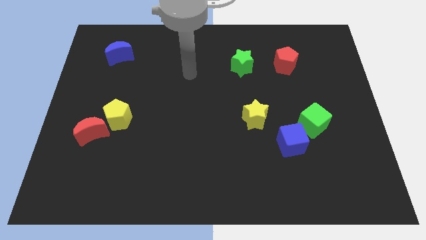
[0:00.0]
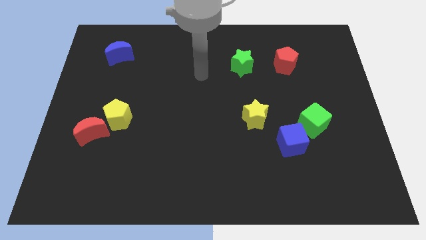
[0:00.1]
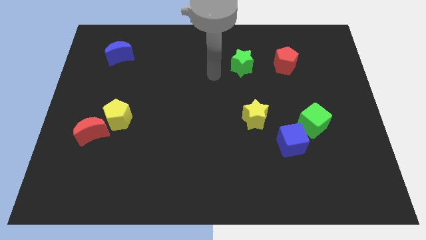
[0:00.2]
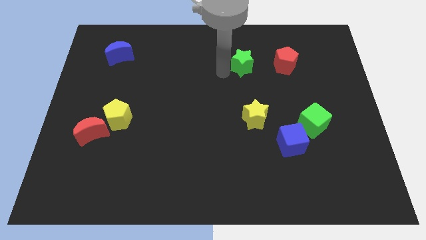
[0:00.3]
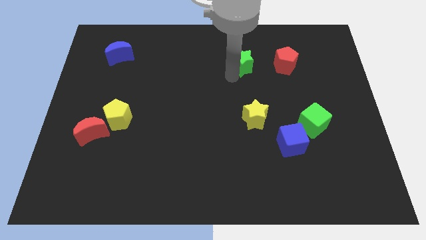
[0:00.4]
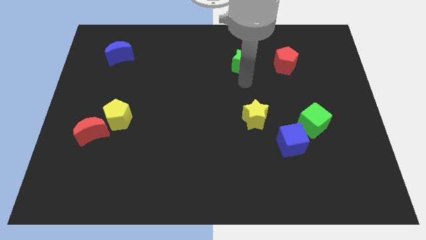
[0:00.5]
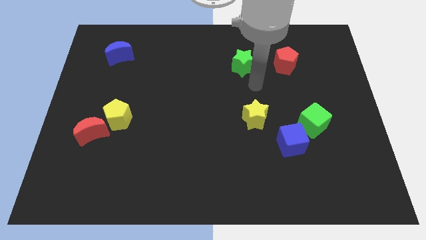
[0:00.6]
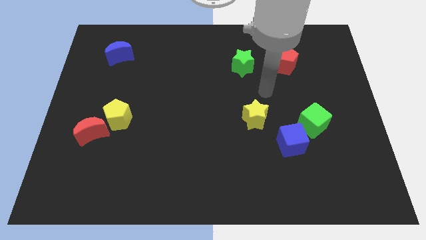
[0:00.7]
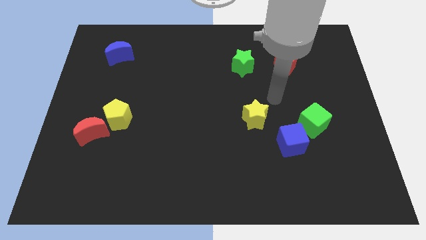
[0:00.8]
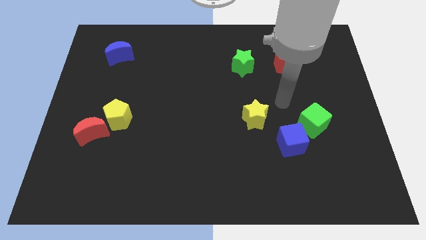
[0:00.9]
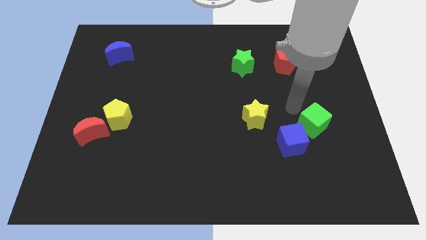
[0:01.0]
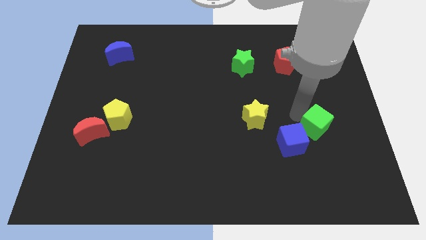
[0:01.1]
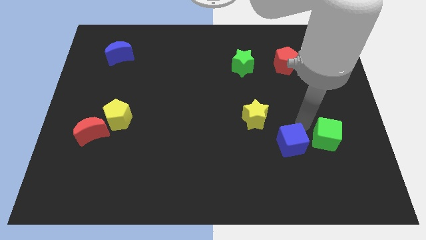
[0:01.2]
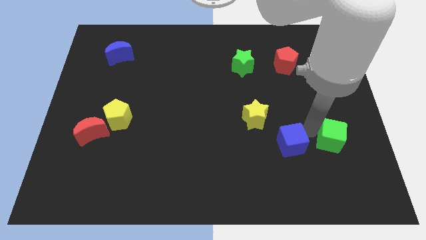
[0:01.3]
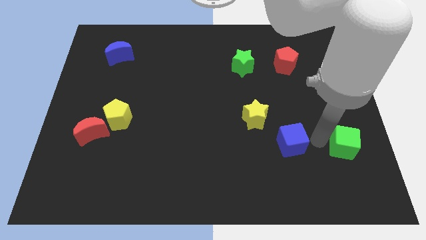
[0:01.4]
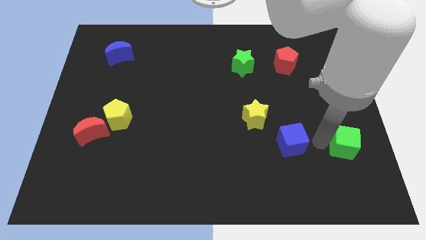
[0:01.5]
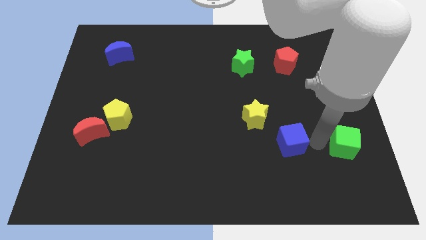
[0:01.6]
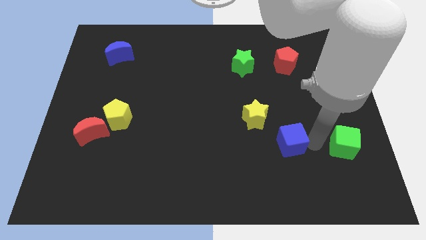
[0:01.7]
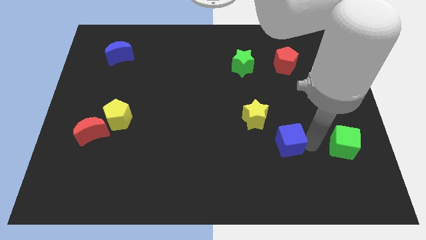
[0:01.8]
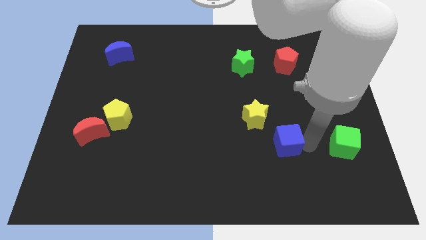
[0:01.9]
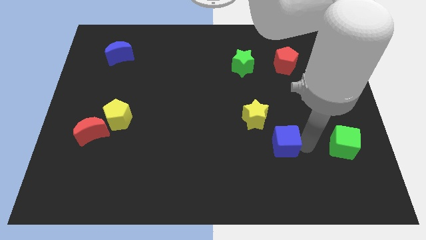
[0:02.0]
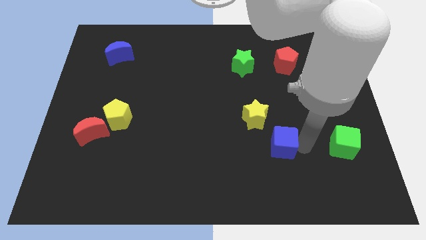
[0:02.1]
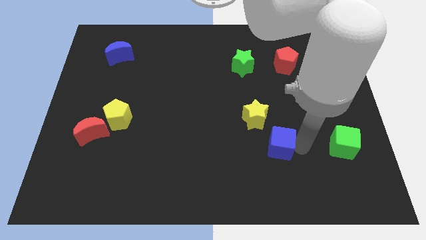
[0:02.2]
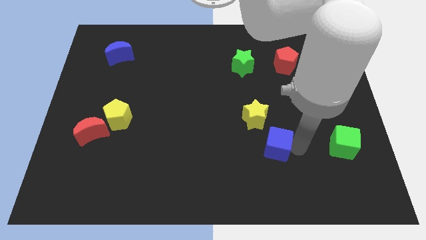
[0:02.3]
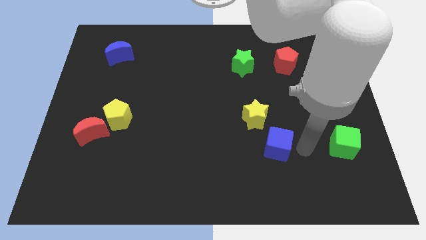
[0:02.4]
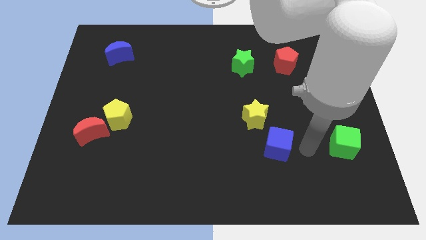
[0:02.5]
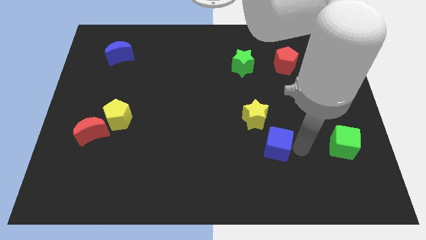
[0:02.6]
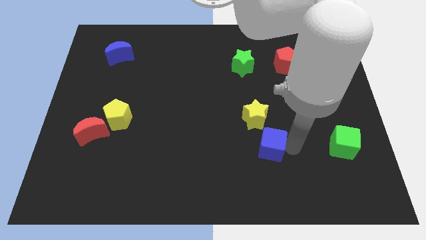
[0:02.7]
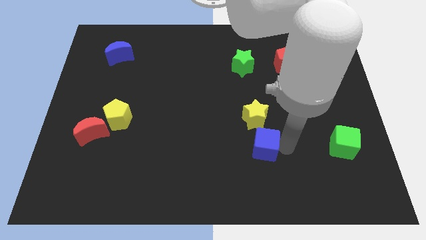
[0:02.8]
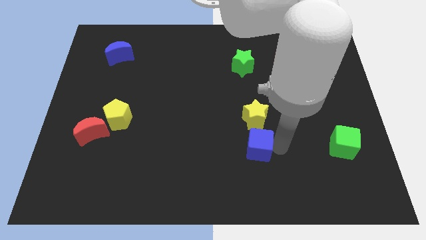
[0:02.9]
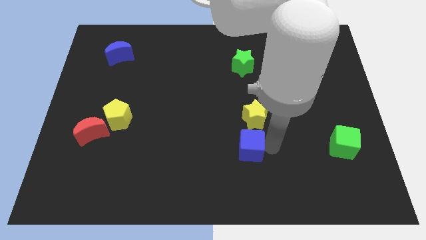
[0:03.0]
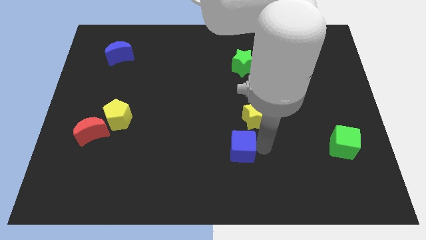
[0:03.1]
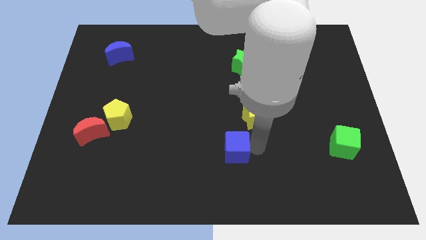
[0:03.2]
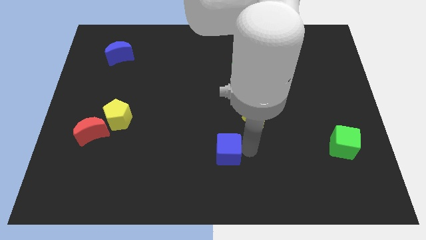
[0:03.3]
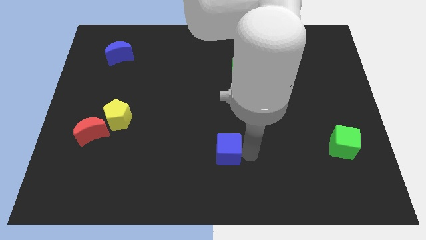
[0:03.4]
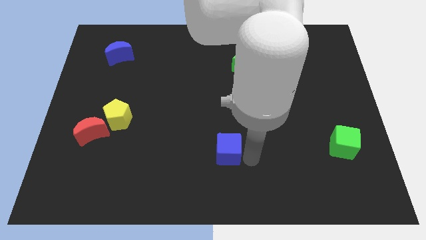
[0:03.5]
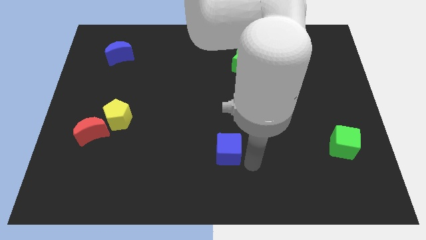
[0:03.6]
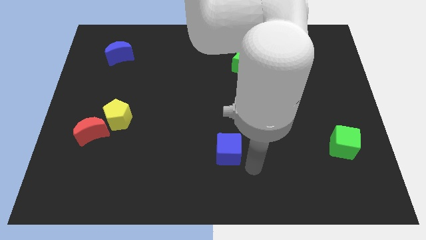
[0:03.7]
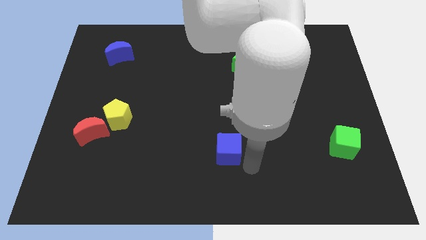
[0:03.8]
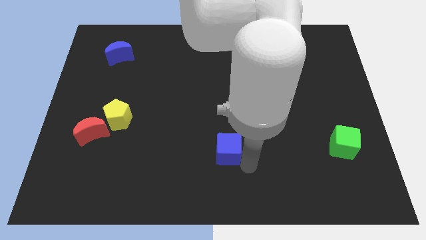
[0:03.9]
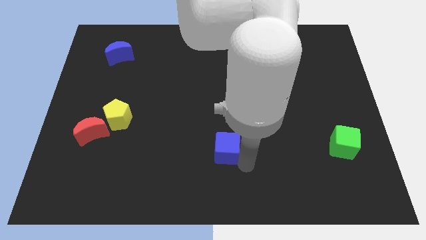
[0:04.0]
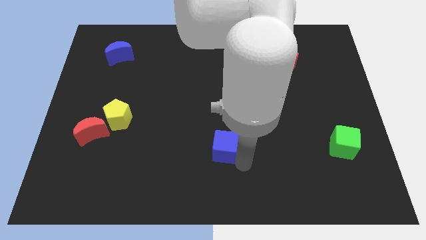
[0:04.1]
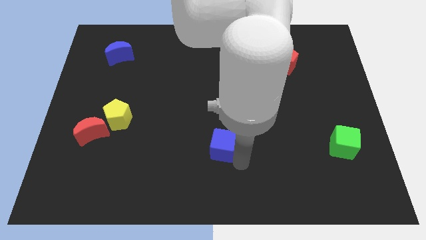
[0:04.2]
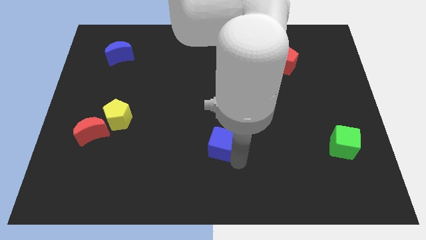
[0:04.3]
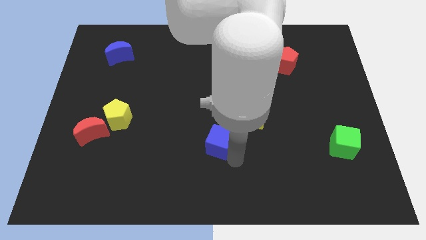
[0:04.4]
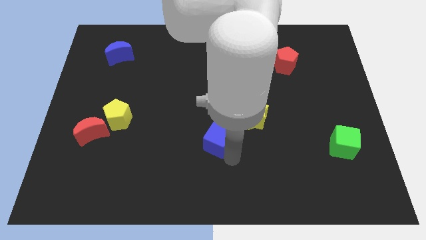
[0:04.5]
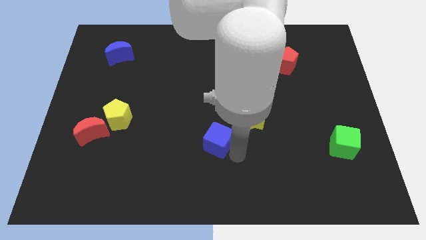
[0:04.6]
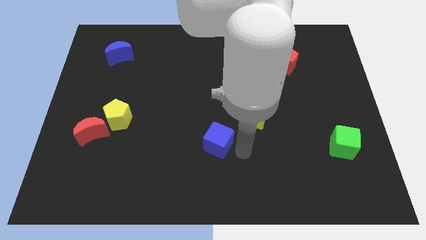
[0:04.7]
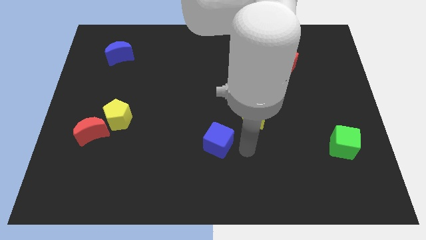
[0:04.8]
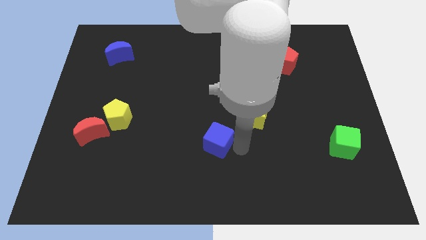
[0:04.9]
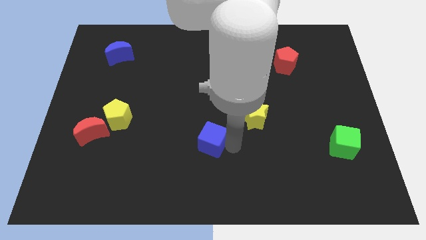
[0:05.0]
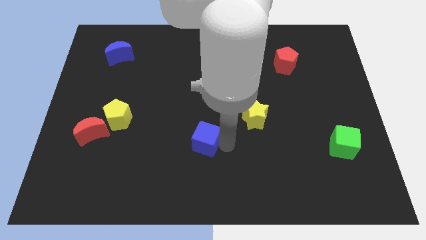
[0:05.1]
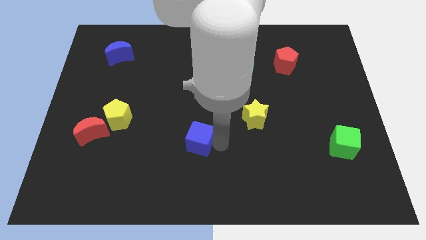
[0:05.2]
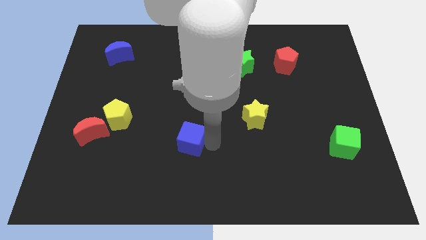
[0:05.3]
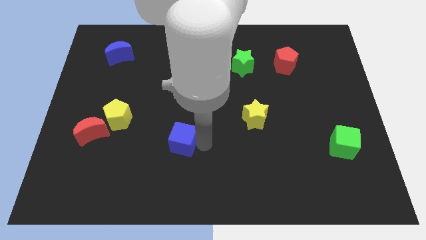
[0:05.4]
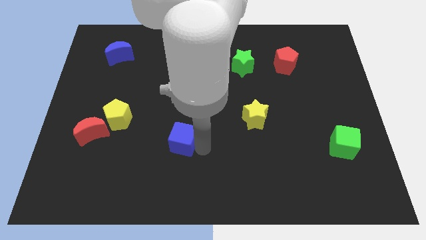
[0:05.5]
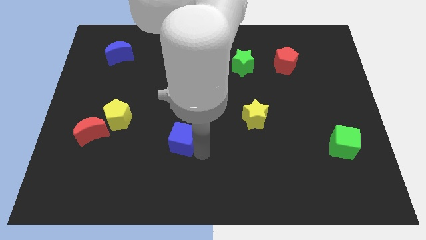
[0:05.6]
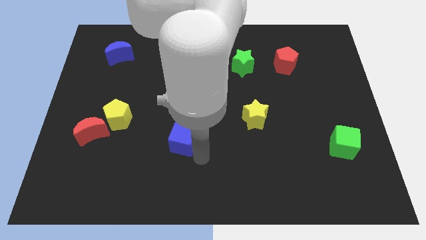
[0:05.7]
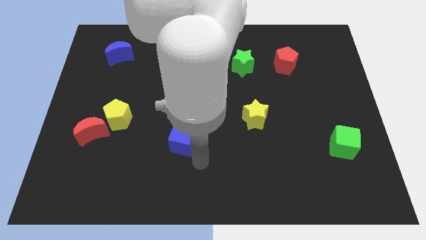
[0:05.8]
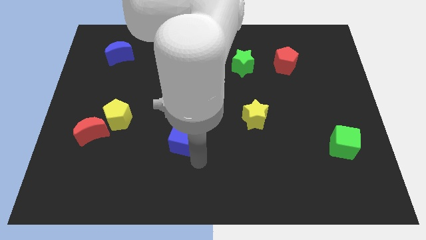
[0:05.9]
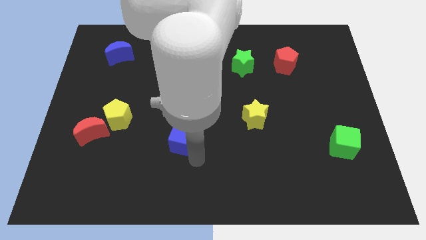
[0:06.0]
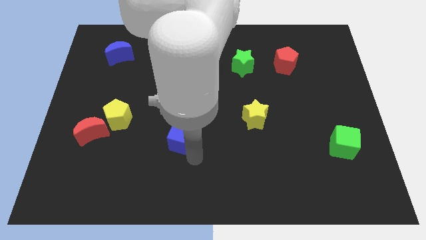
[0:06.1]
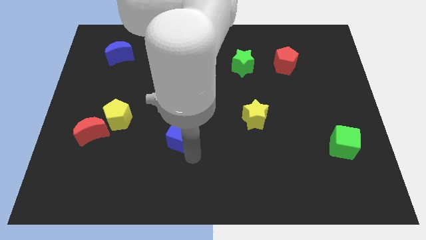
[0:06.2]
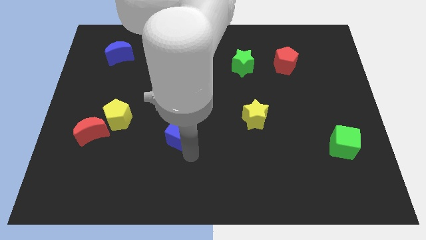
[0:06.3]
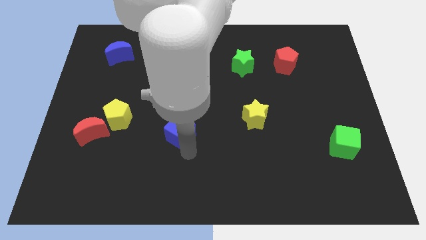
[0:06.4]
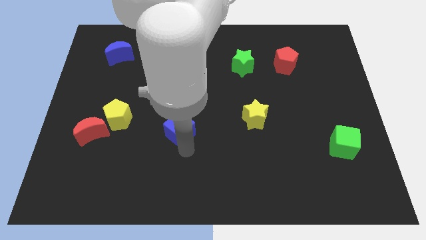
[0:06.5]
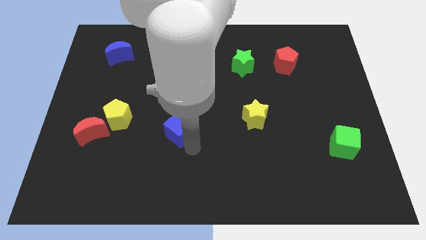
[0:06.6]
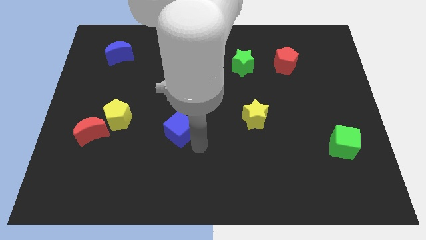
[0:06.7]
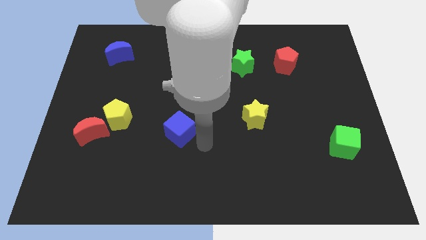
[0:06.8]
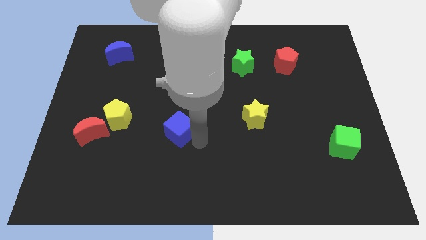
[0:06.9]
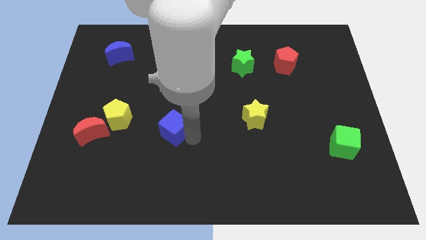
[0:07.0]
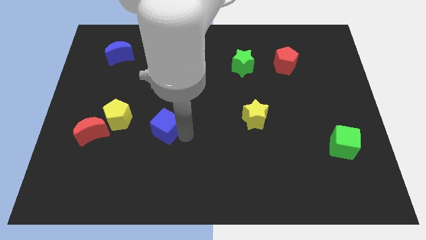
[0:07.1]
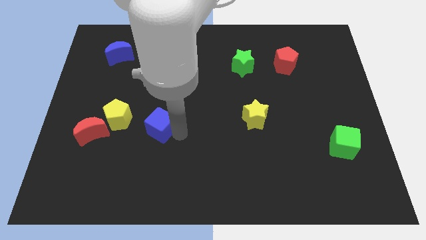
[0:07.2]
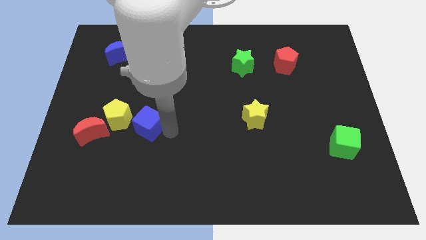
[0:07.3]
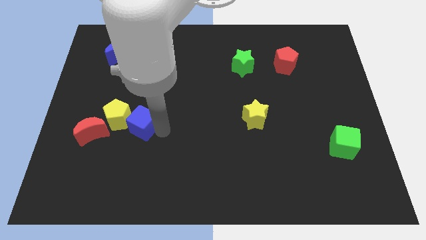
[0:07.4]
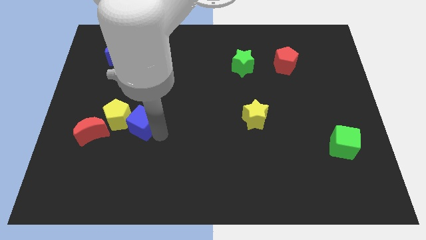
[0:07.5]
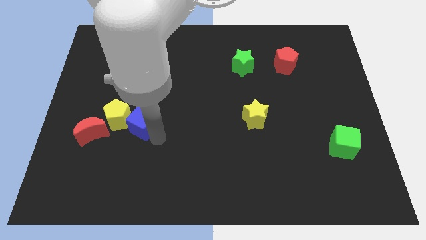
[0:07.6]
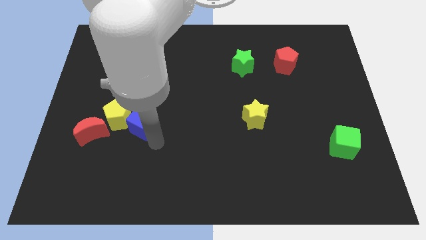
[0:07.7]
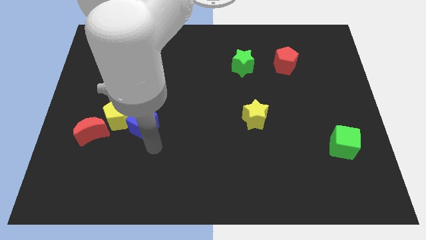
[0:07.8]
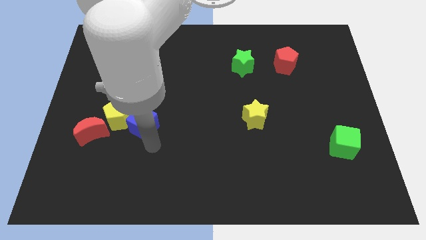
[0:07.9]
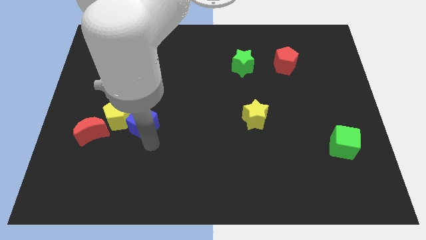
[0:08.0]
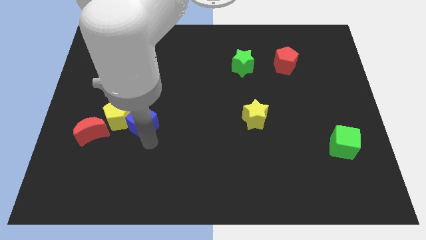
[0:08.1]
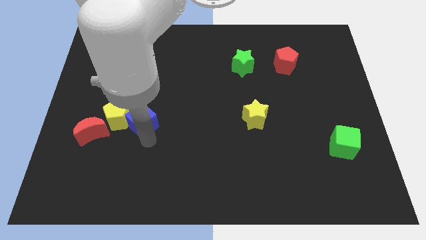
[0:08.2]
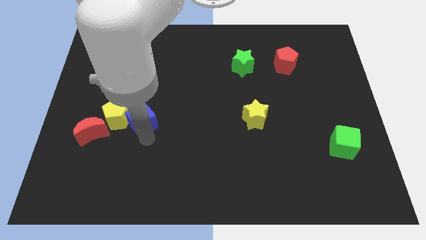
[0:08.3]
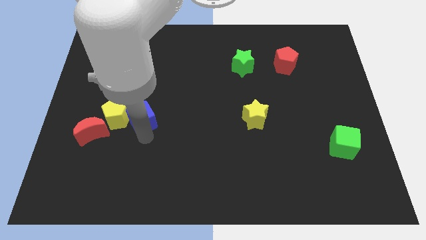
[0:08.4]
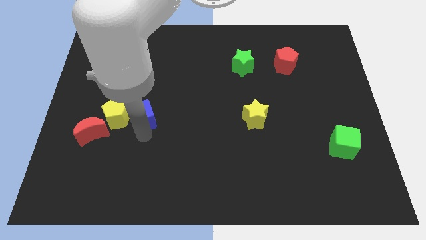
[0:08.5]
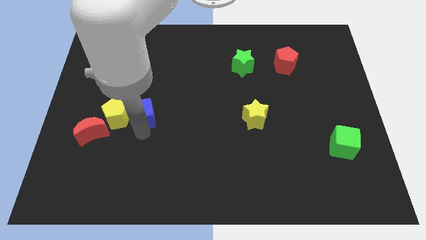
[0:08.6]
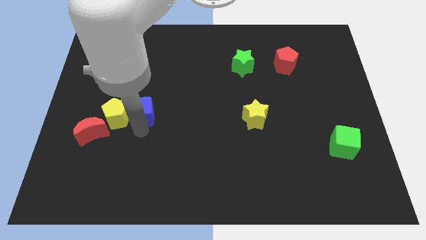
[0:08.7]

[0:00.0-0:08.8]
move the blue cube to the top right of the red moon
